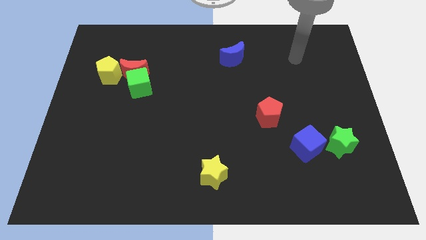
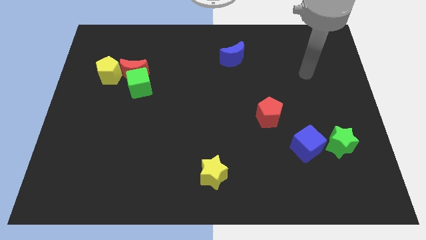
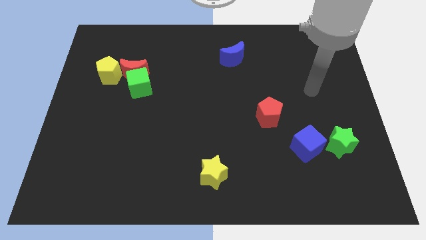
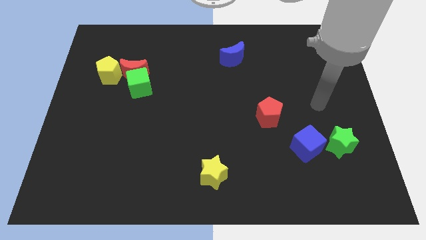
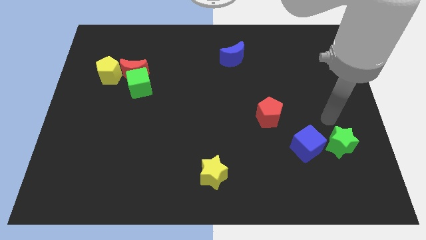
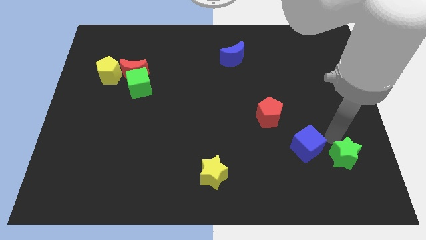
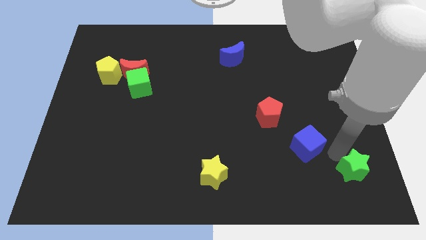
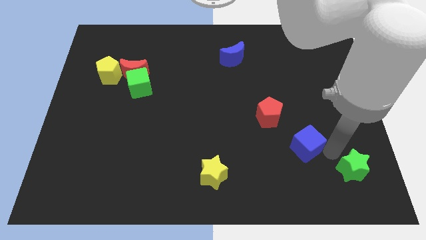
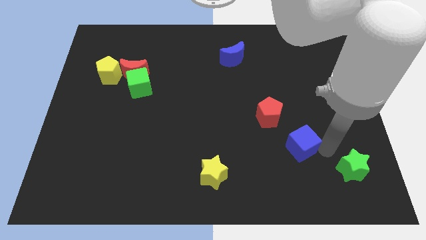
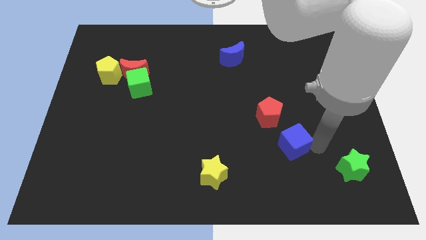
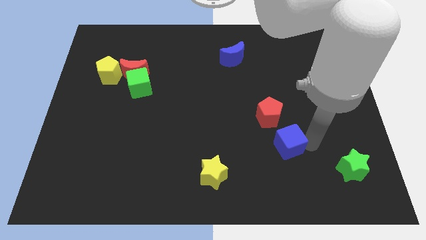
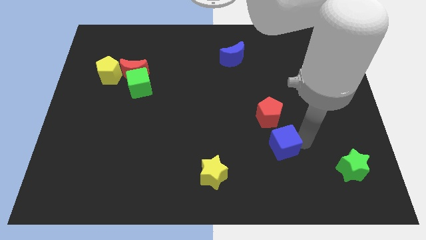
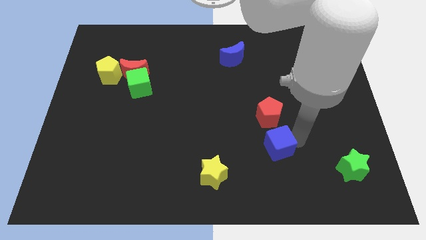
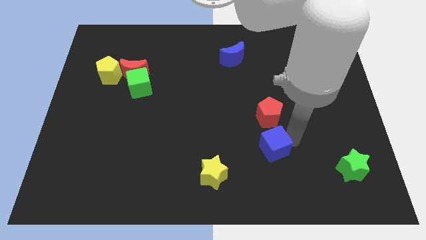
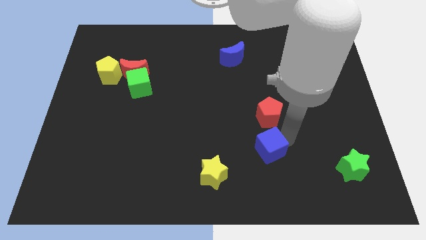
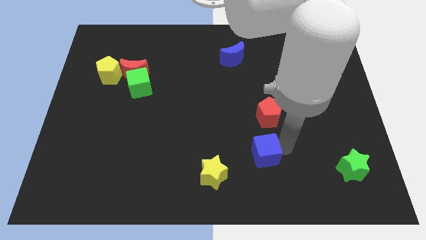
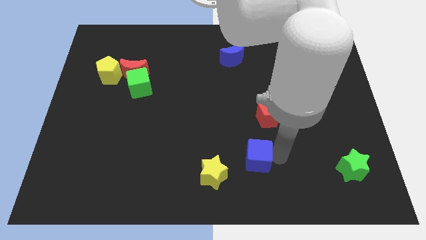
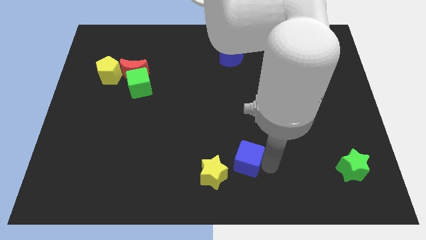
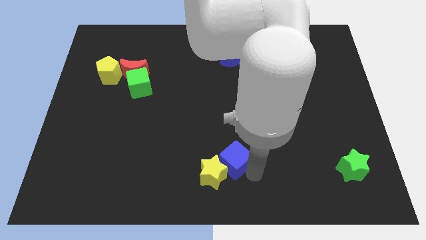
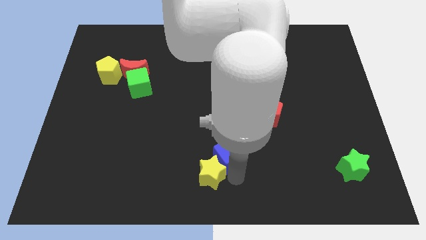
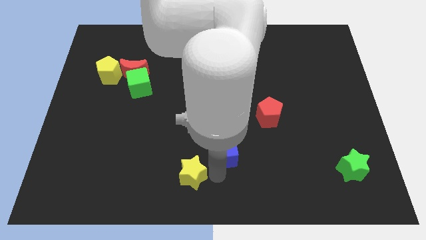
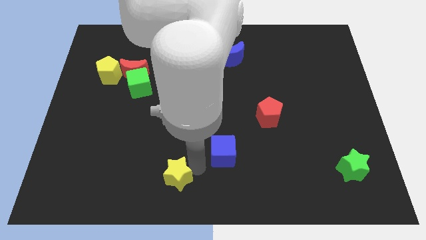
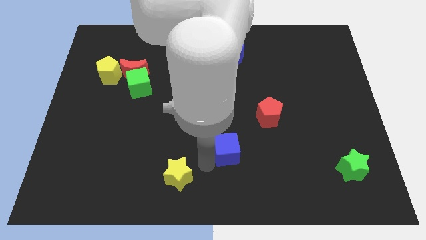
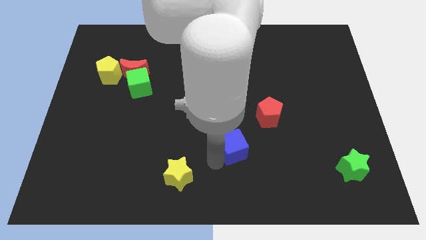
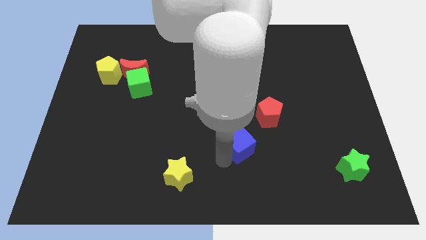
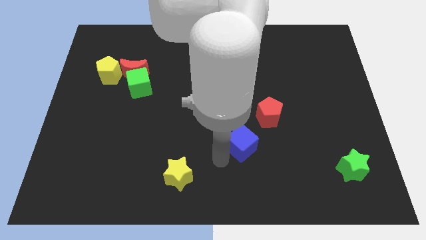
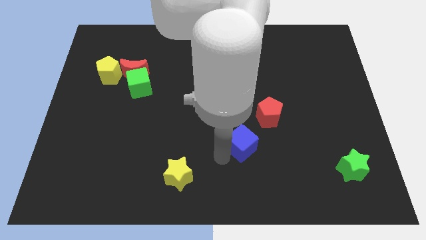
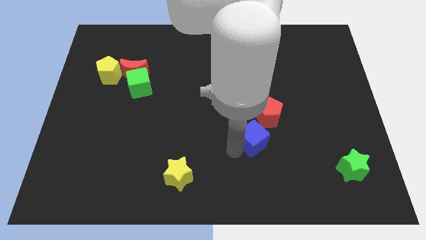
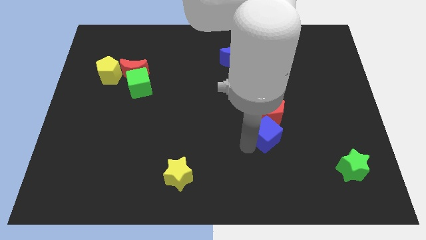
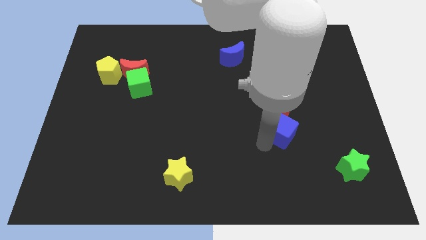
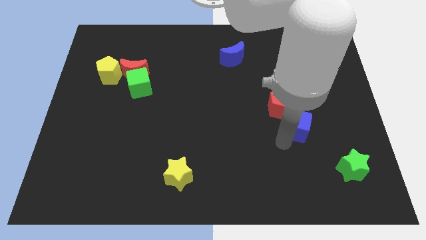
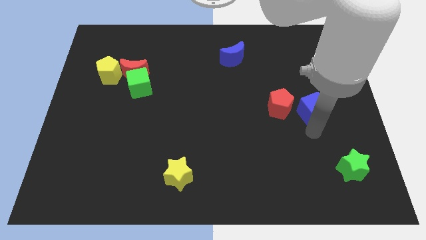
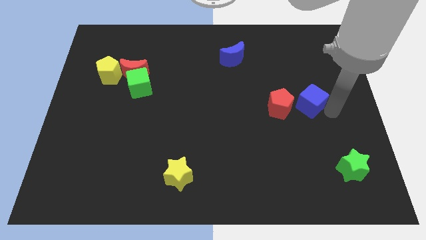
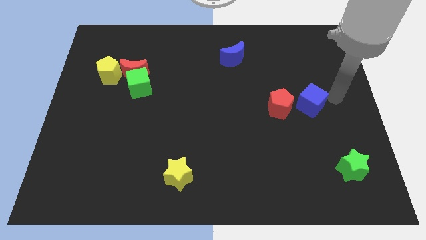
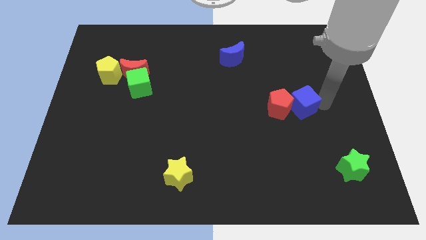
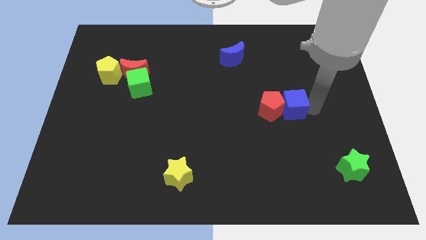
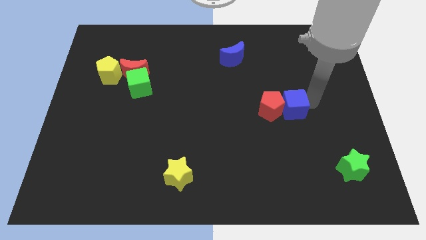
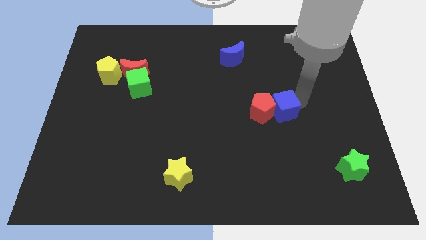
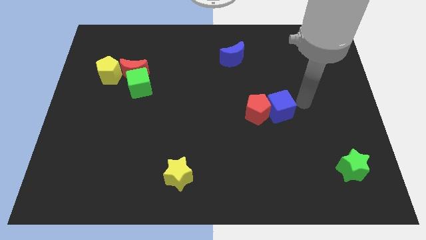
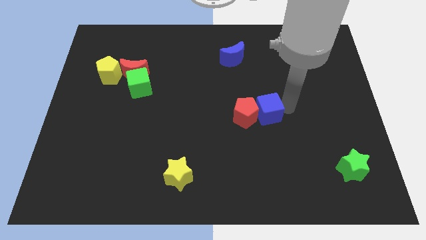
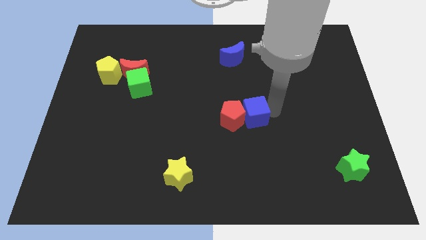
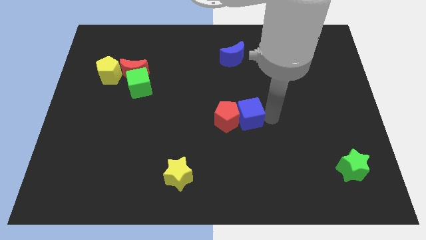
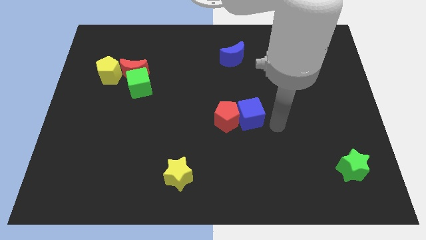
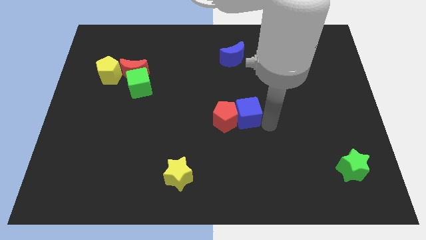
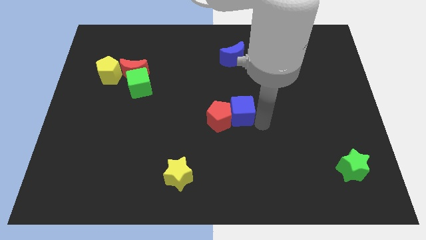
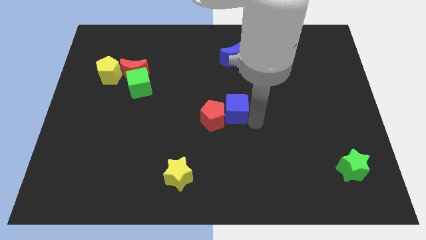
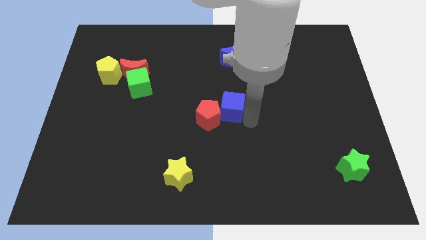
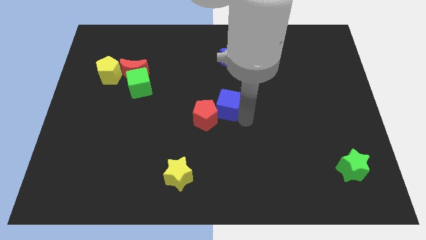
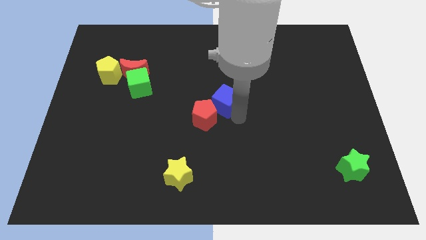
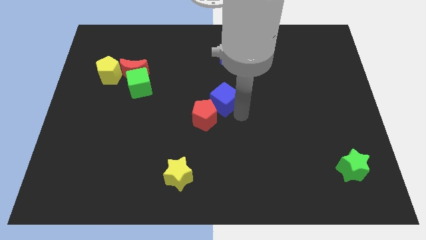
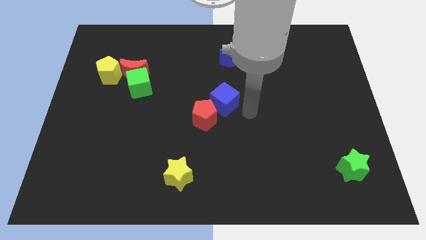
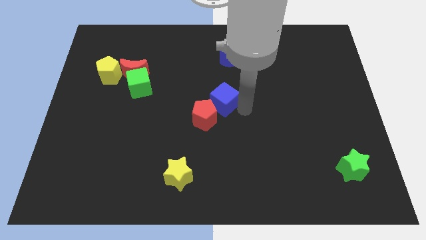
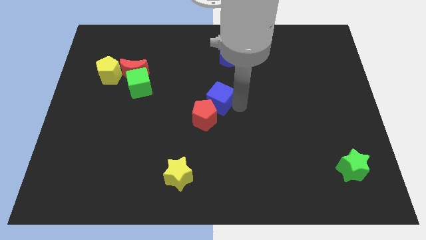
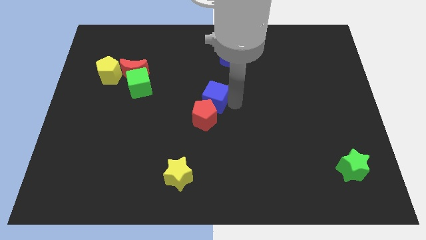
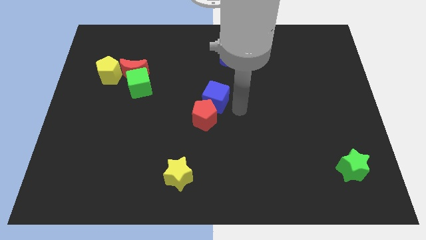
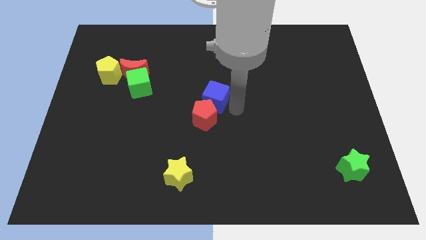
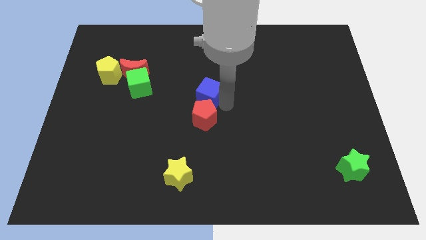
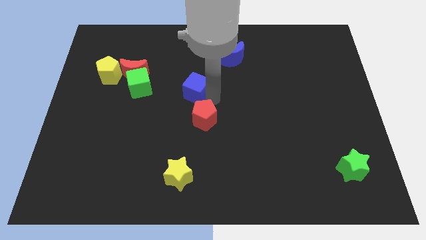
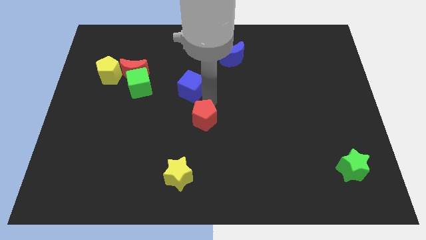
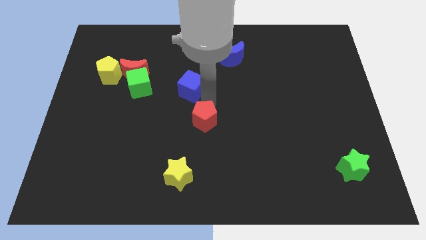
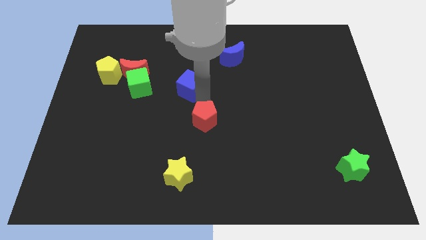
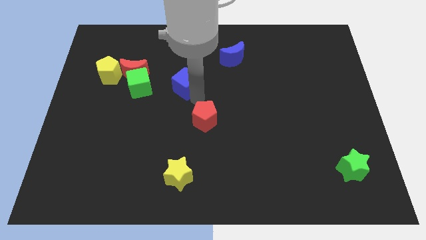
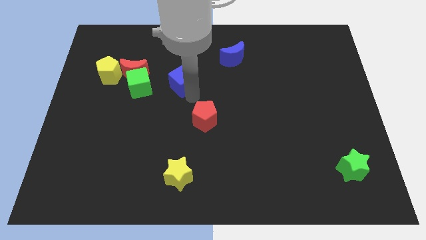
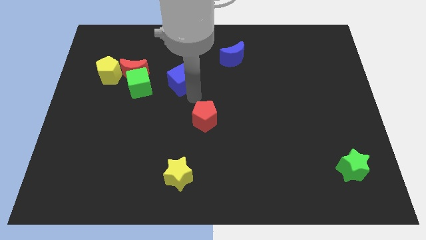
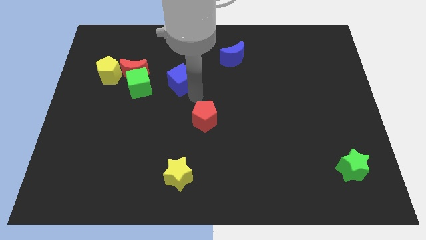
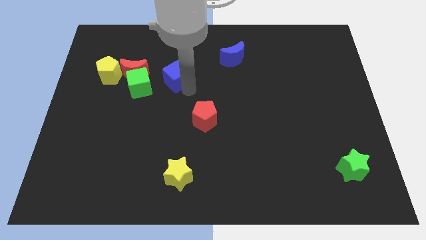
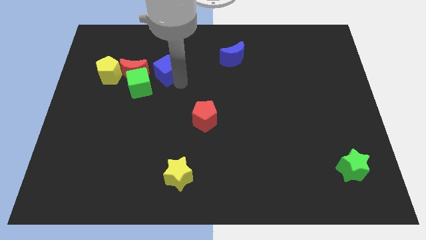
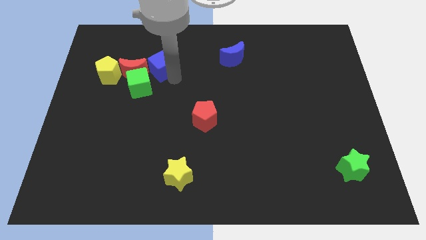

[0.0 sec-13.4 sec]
slide the blue cube to the top side of the green cube
